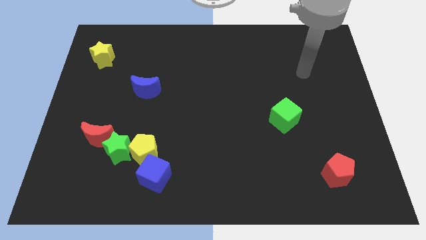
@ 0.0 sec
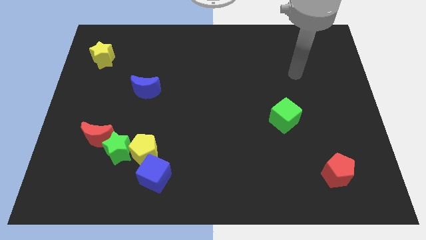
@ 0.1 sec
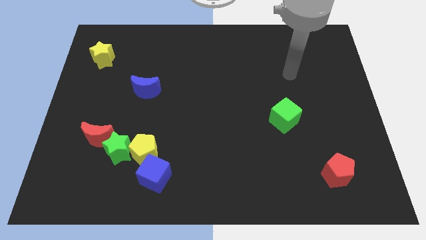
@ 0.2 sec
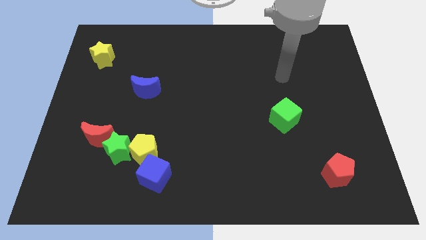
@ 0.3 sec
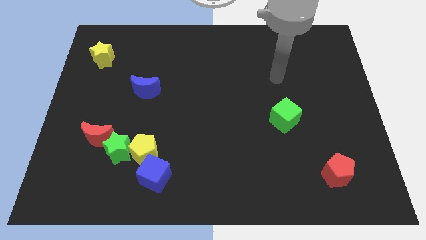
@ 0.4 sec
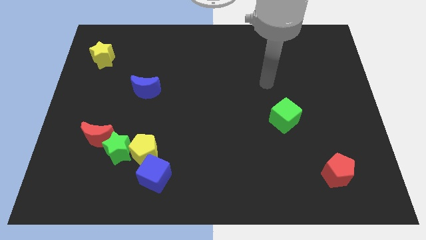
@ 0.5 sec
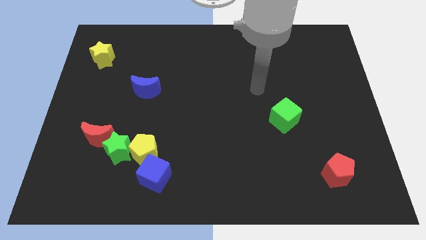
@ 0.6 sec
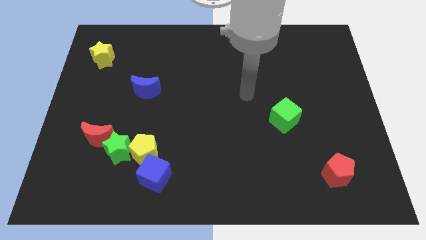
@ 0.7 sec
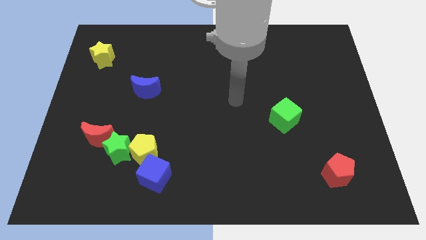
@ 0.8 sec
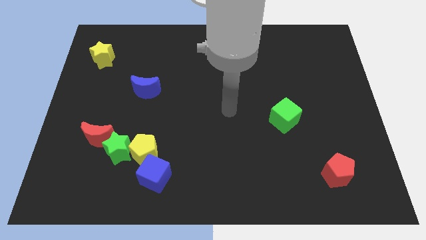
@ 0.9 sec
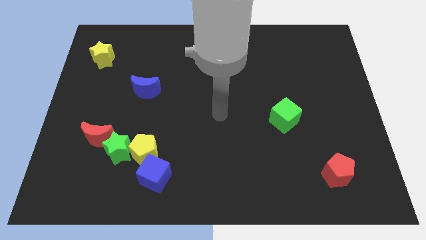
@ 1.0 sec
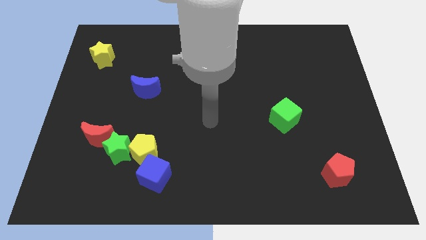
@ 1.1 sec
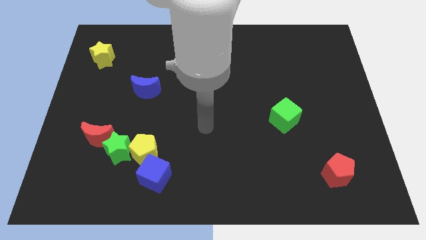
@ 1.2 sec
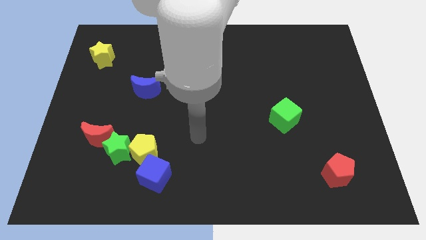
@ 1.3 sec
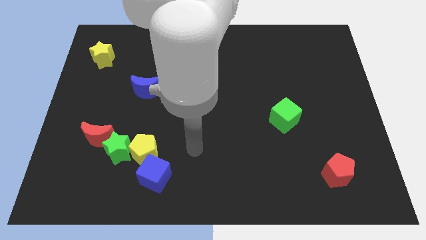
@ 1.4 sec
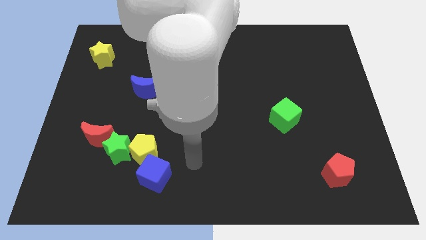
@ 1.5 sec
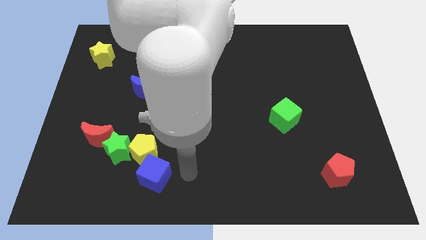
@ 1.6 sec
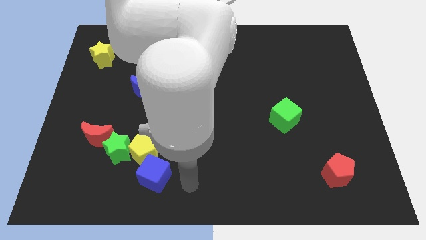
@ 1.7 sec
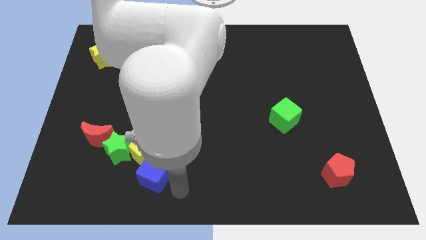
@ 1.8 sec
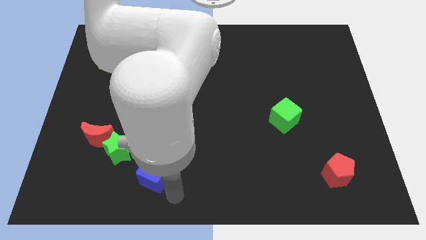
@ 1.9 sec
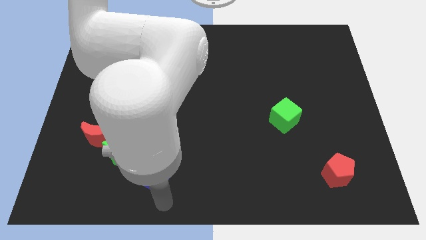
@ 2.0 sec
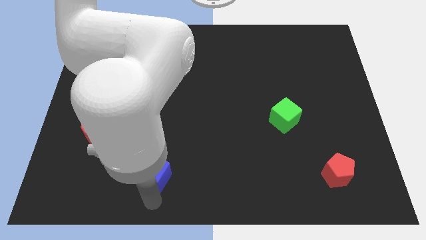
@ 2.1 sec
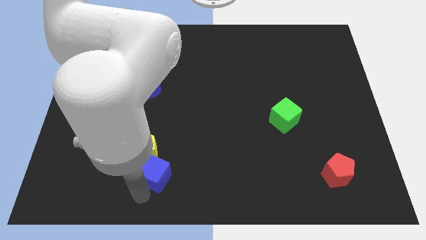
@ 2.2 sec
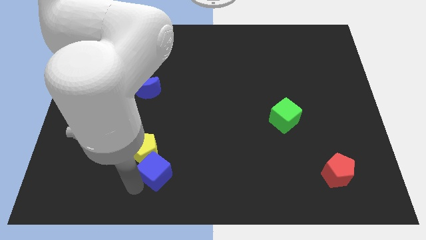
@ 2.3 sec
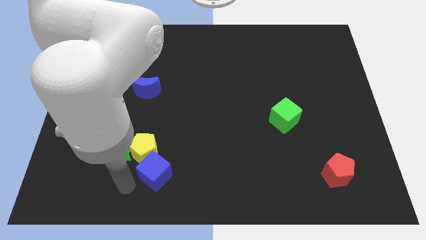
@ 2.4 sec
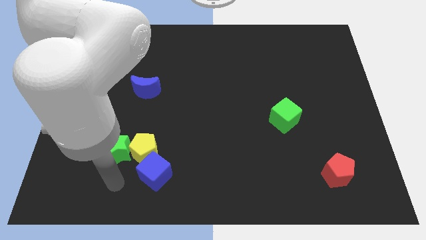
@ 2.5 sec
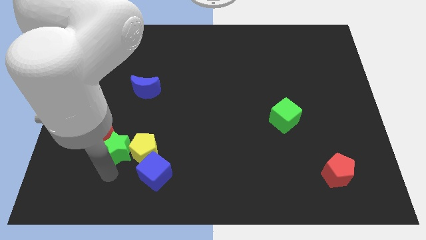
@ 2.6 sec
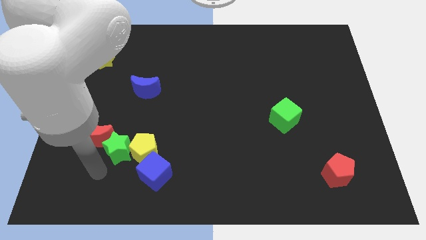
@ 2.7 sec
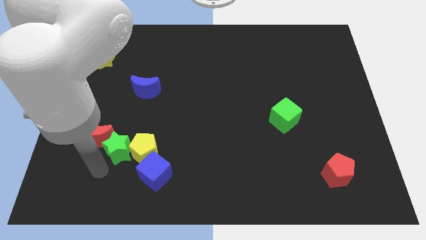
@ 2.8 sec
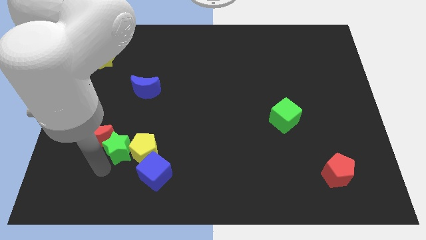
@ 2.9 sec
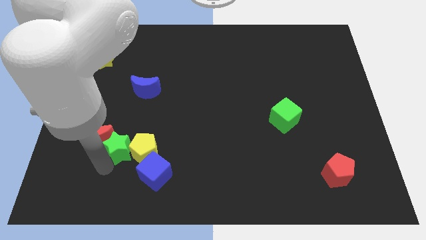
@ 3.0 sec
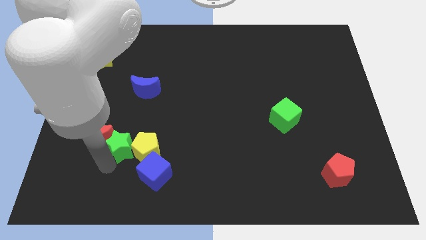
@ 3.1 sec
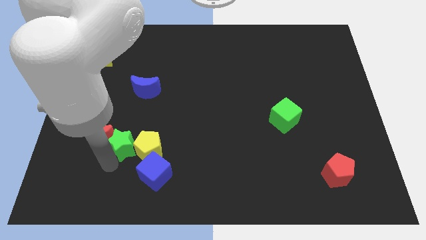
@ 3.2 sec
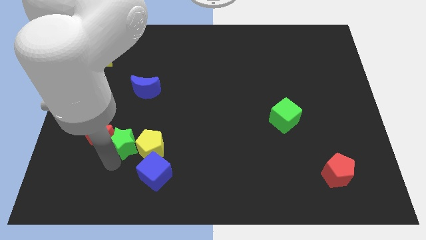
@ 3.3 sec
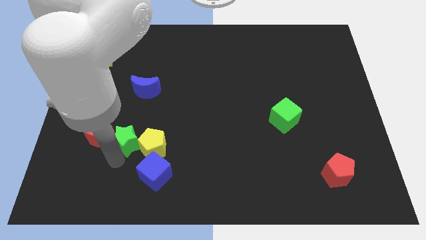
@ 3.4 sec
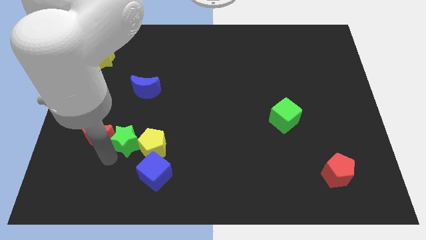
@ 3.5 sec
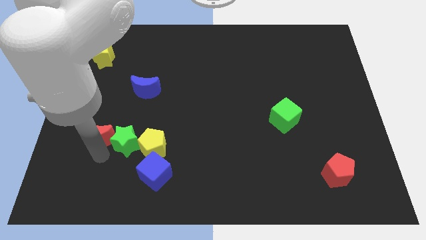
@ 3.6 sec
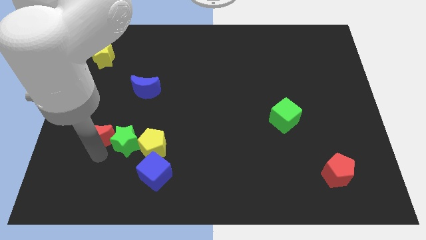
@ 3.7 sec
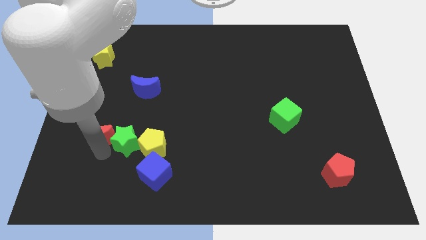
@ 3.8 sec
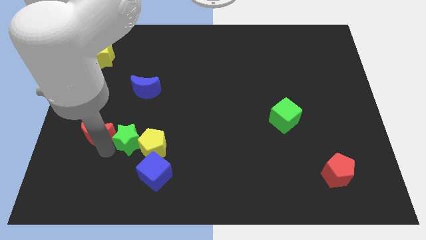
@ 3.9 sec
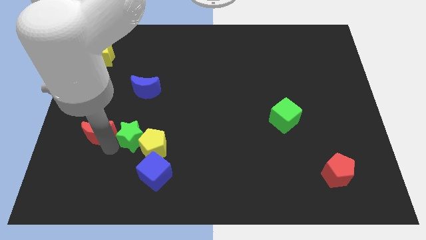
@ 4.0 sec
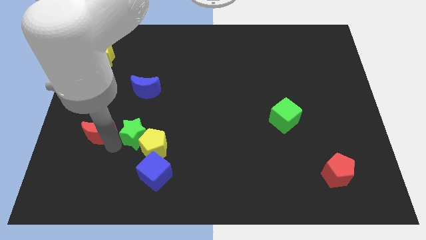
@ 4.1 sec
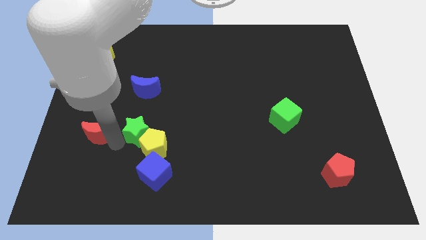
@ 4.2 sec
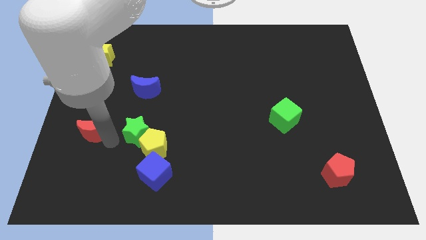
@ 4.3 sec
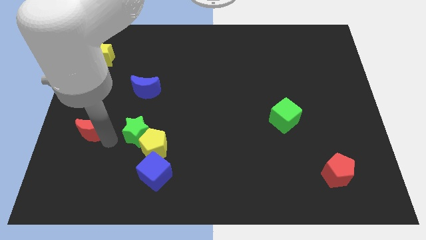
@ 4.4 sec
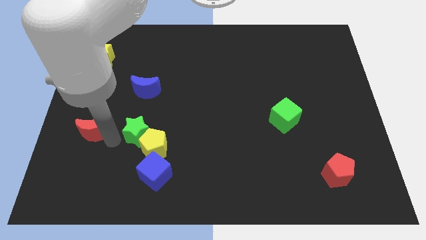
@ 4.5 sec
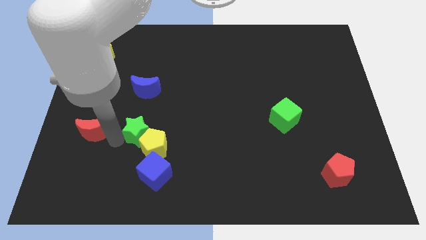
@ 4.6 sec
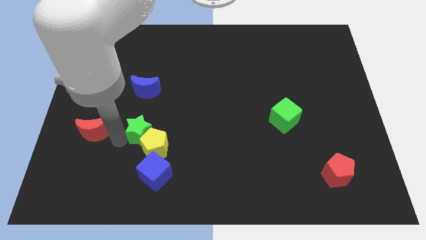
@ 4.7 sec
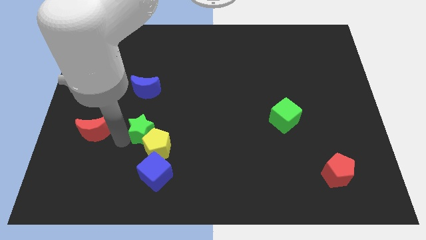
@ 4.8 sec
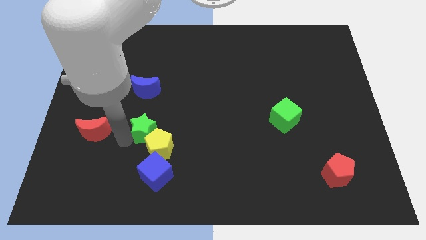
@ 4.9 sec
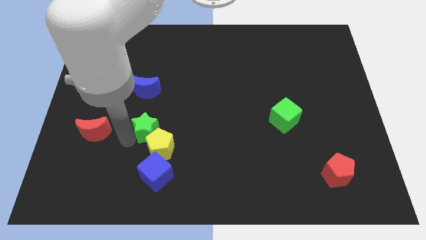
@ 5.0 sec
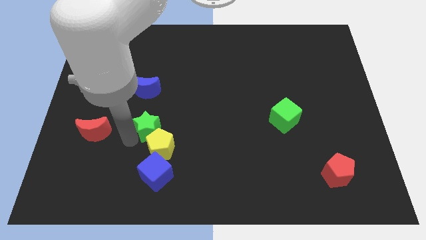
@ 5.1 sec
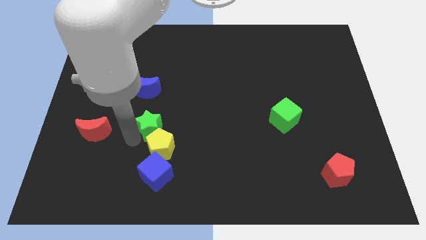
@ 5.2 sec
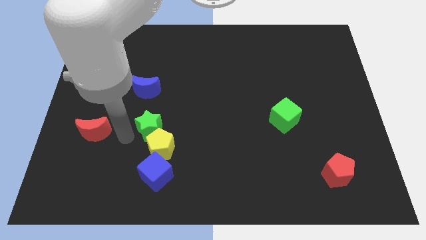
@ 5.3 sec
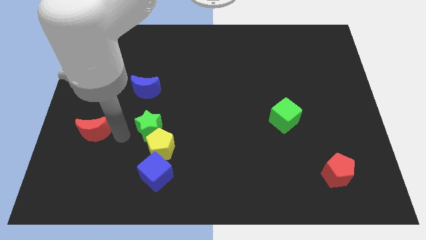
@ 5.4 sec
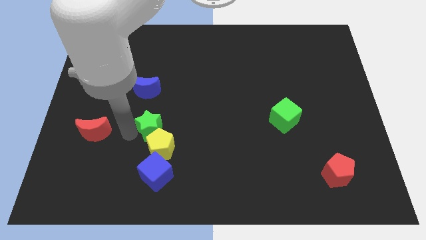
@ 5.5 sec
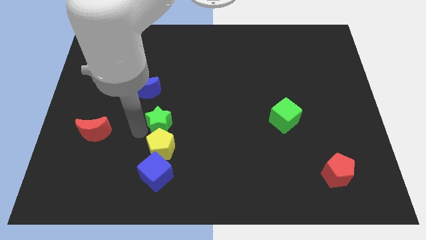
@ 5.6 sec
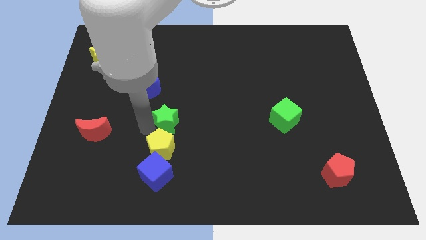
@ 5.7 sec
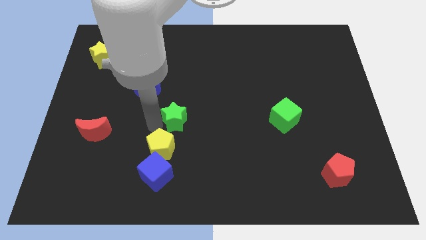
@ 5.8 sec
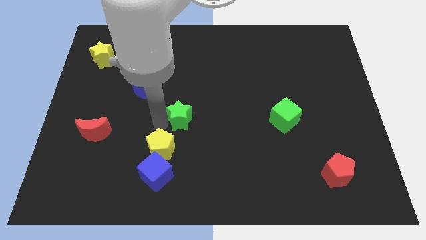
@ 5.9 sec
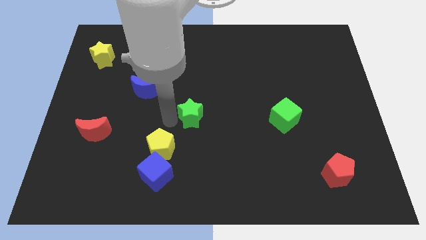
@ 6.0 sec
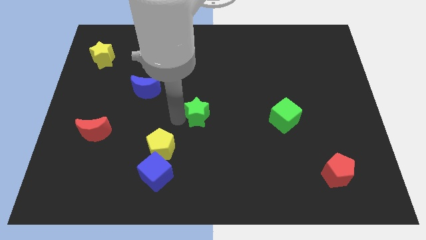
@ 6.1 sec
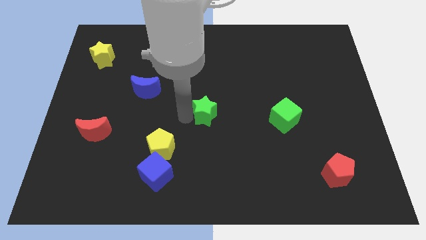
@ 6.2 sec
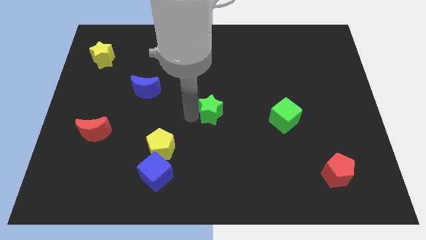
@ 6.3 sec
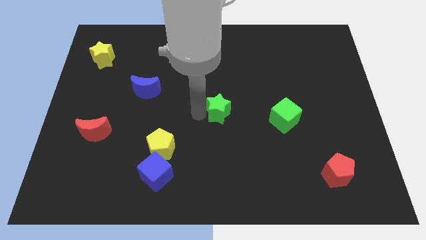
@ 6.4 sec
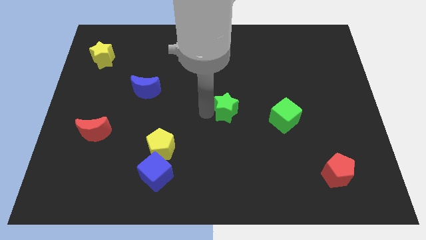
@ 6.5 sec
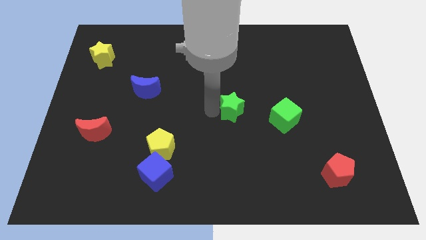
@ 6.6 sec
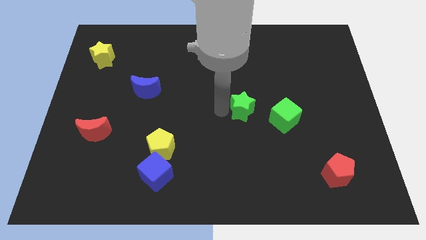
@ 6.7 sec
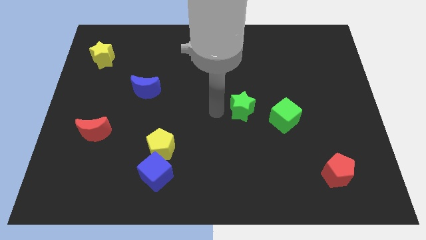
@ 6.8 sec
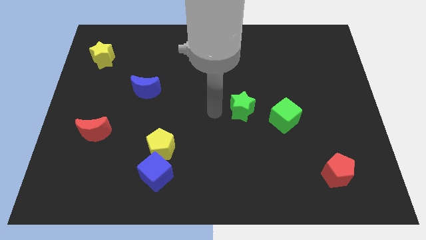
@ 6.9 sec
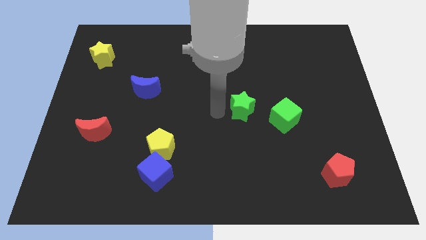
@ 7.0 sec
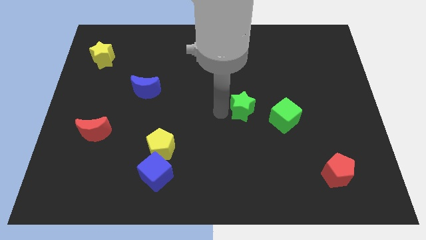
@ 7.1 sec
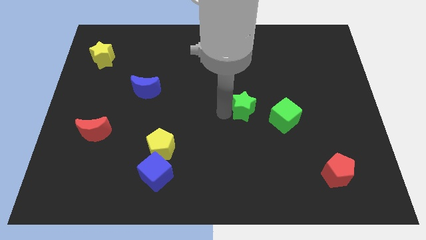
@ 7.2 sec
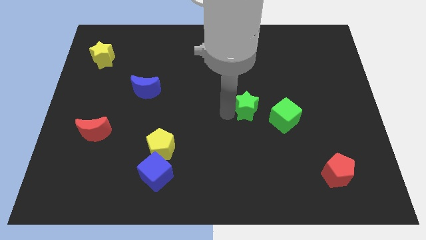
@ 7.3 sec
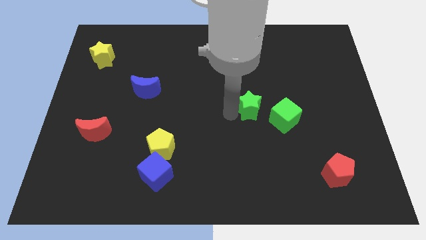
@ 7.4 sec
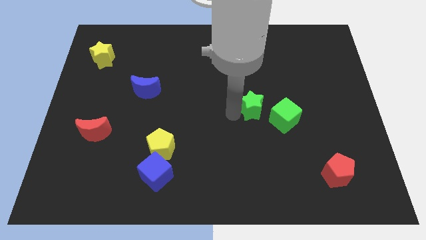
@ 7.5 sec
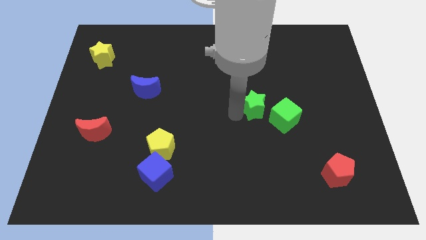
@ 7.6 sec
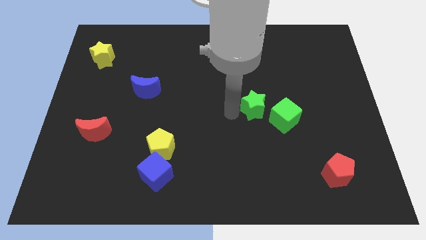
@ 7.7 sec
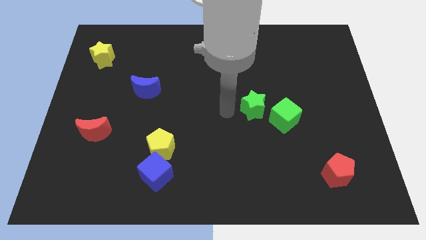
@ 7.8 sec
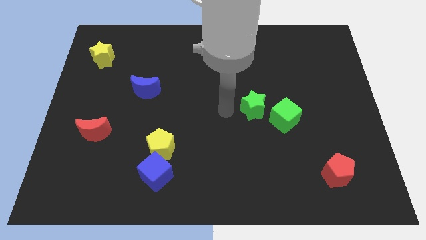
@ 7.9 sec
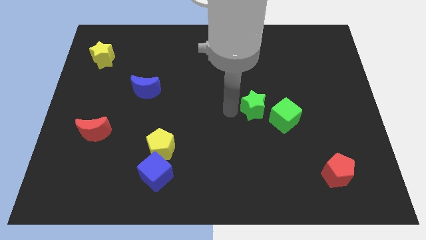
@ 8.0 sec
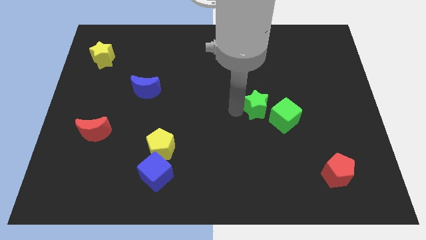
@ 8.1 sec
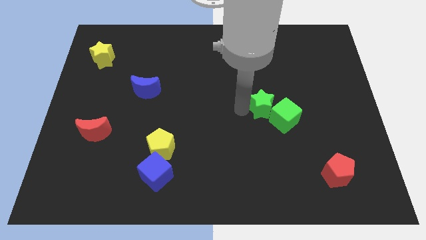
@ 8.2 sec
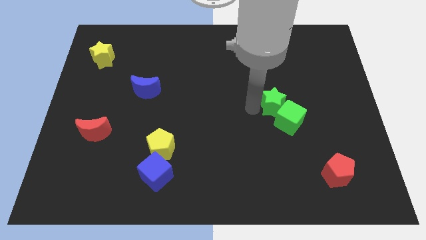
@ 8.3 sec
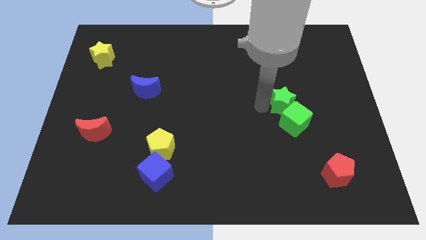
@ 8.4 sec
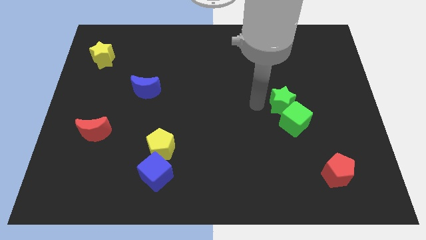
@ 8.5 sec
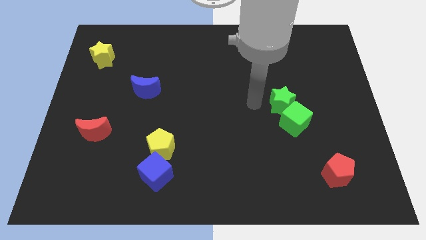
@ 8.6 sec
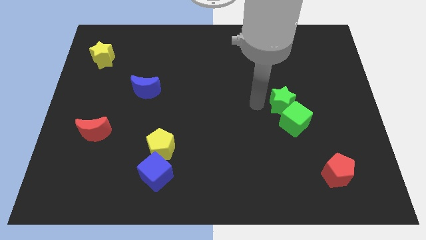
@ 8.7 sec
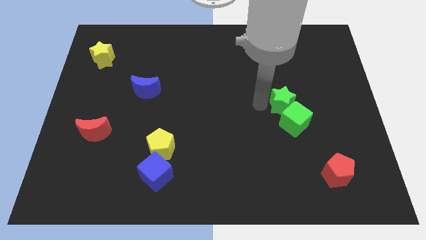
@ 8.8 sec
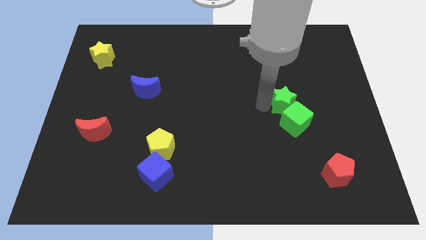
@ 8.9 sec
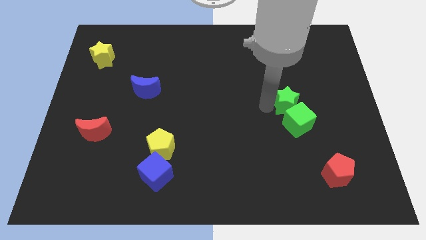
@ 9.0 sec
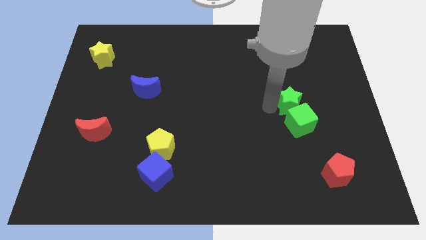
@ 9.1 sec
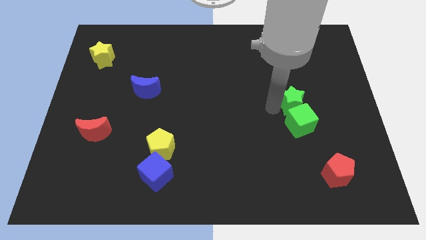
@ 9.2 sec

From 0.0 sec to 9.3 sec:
push the green star to the top right side of the green cube
